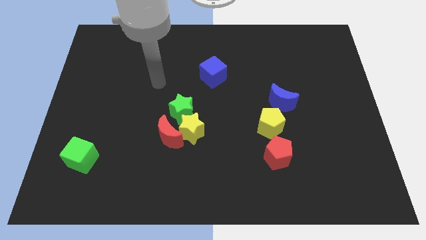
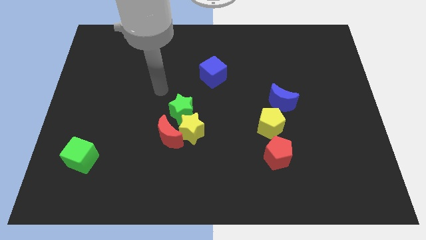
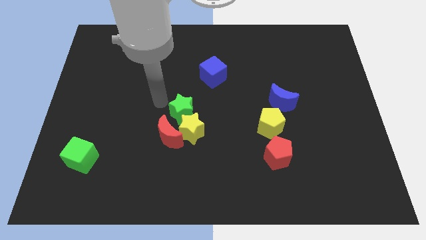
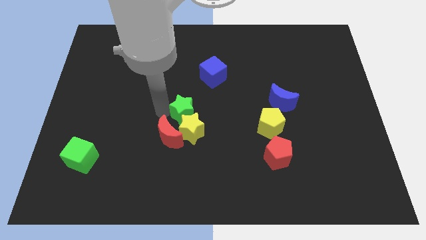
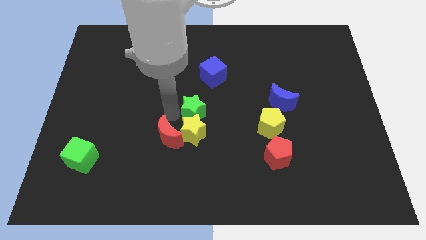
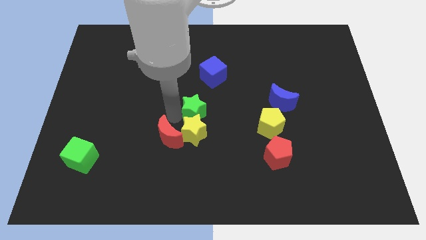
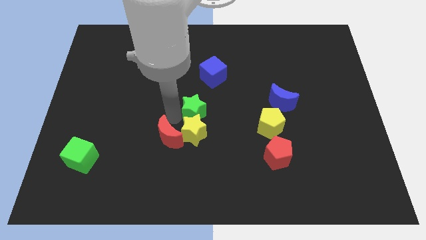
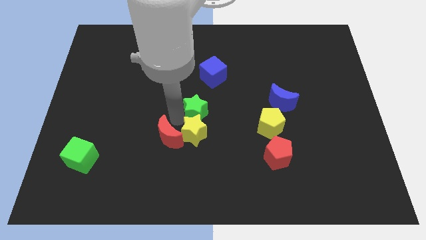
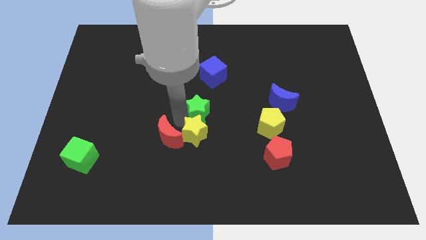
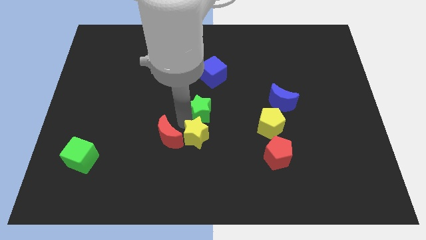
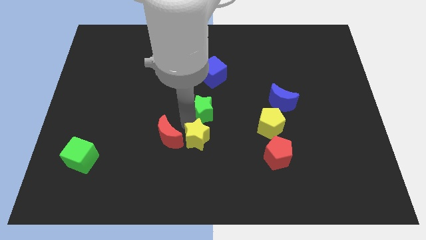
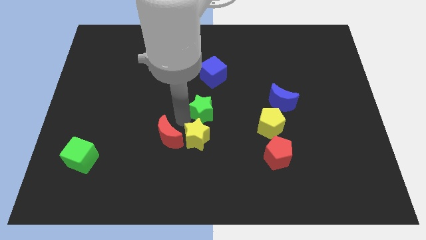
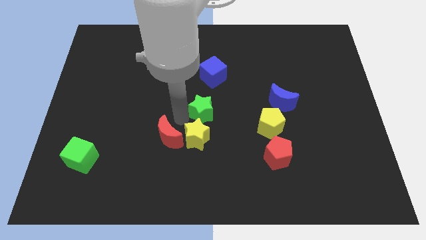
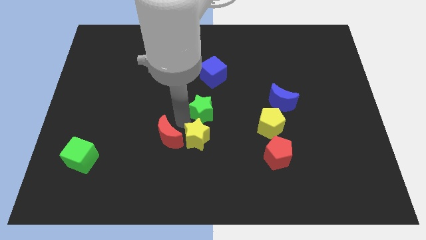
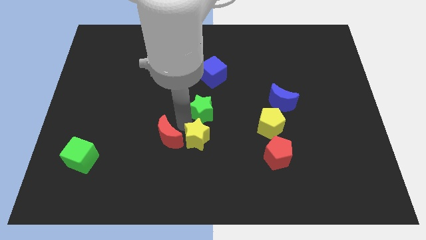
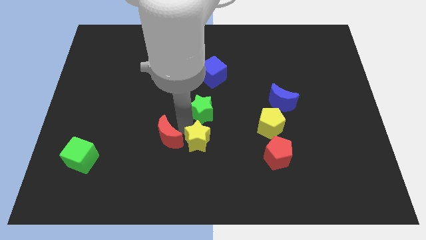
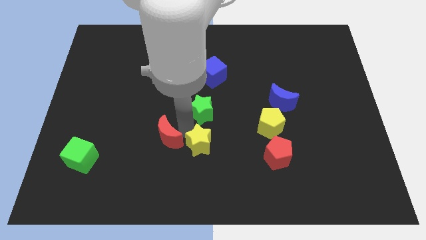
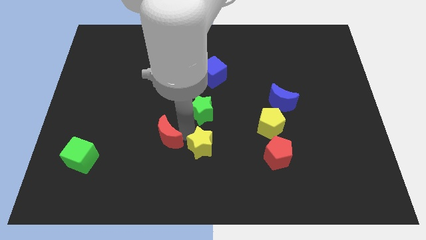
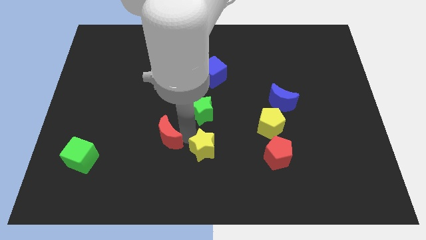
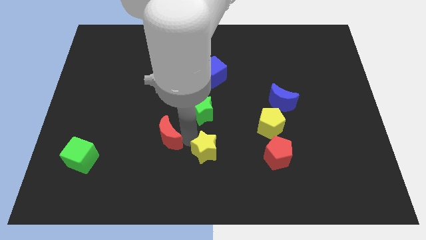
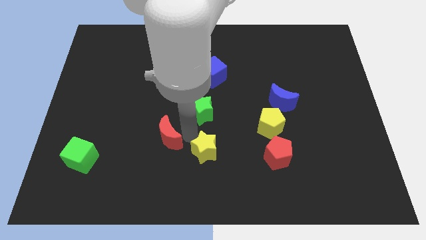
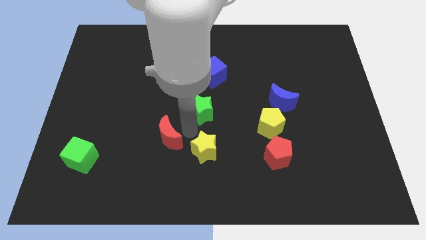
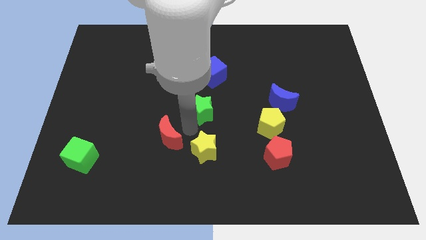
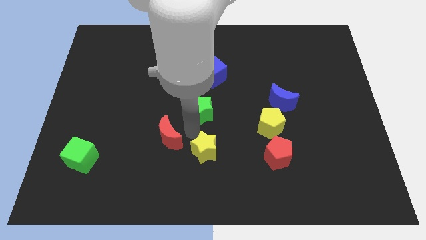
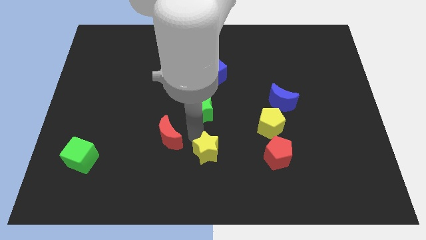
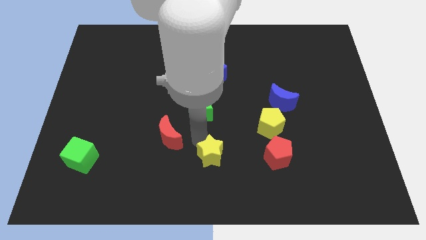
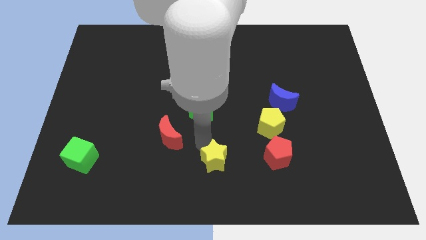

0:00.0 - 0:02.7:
pull the yellow star apart from the red moon and green star

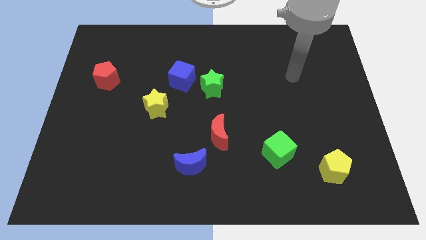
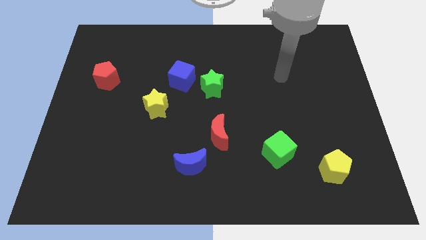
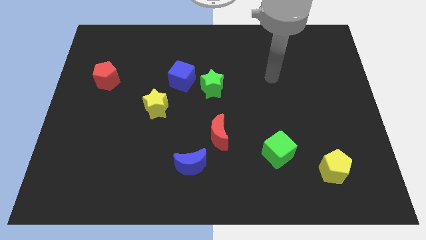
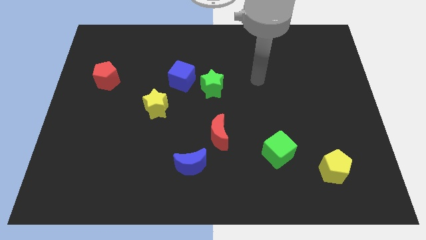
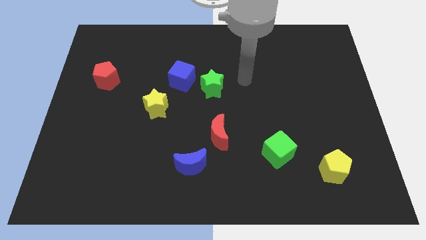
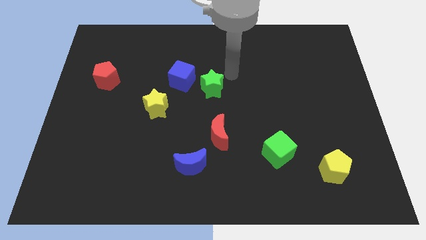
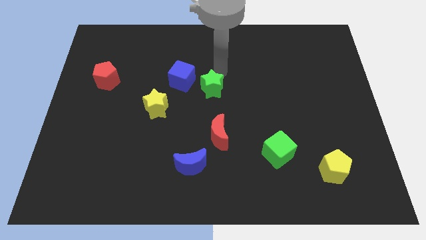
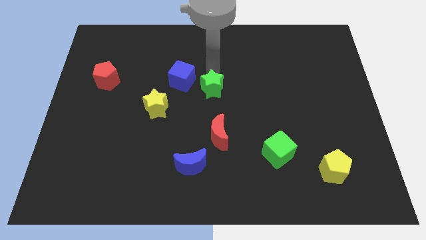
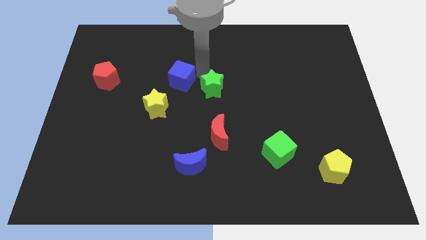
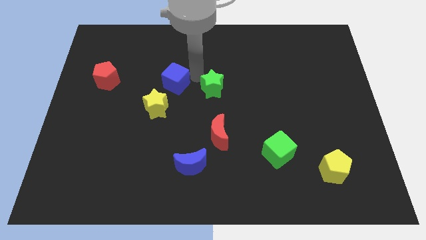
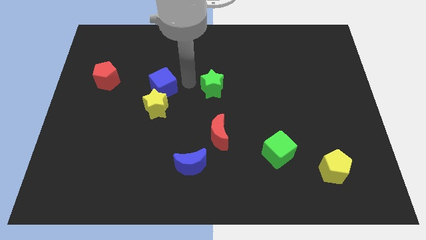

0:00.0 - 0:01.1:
pull the green star apart from the blue cube

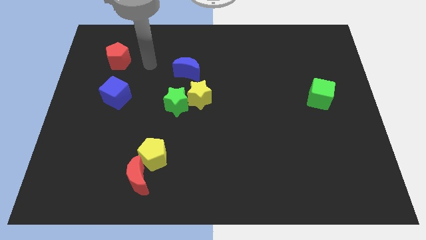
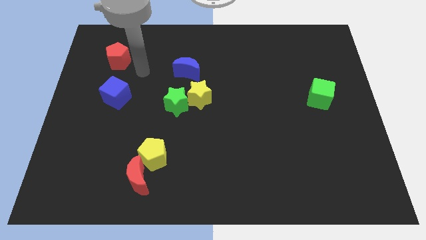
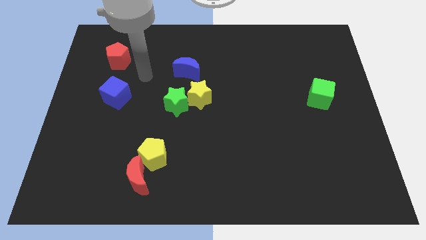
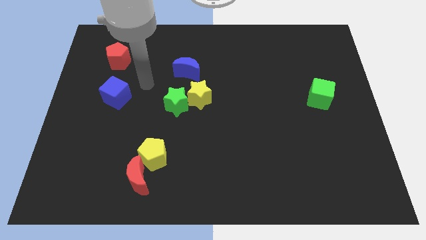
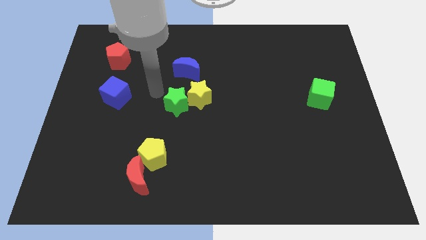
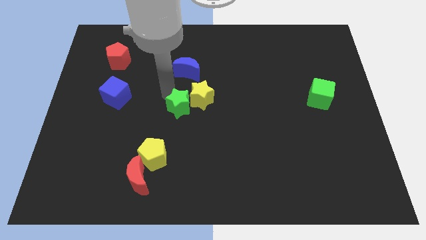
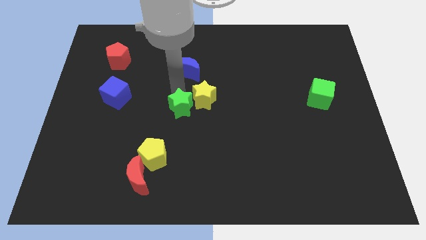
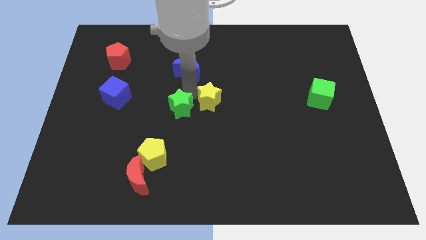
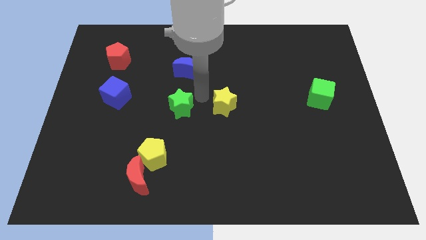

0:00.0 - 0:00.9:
pull the green star apart from the yellow star

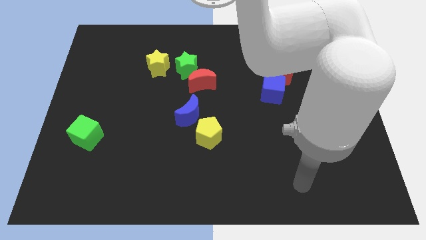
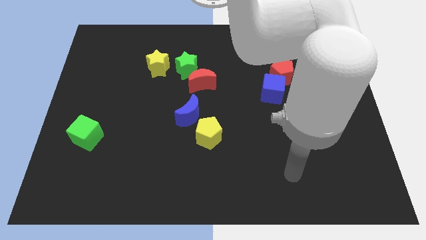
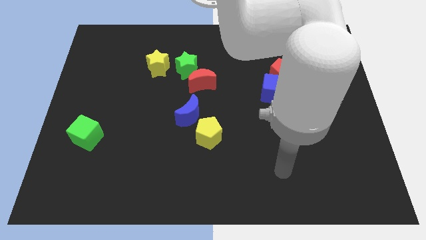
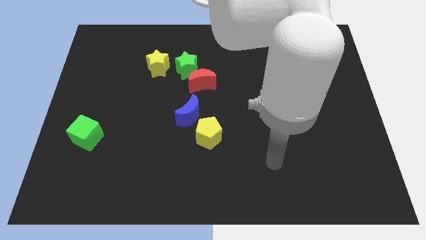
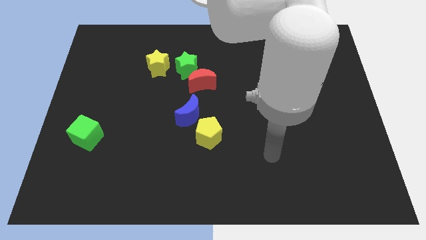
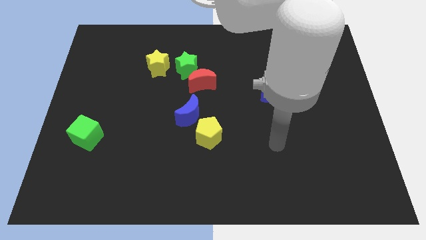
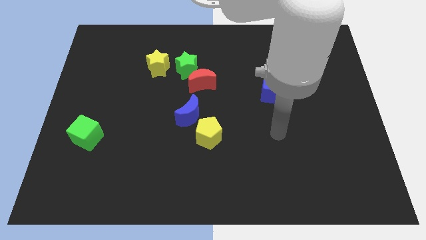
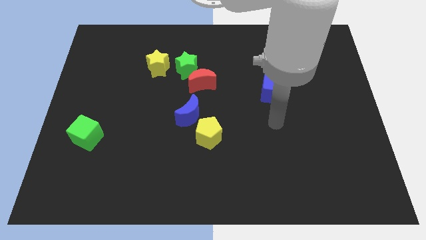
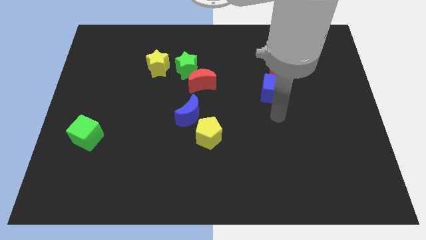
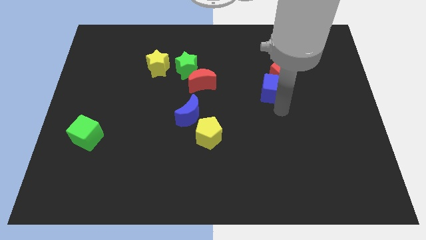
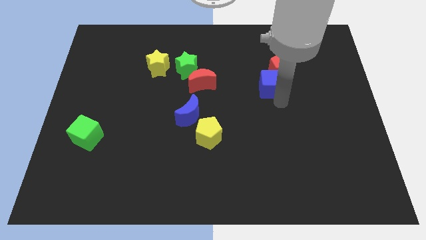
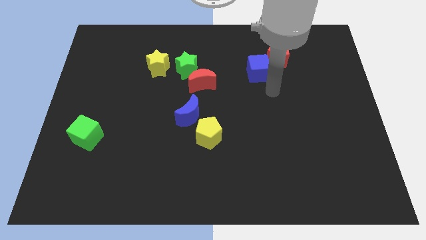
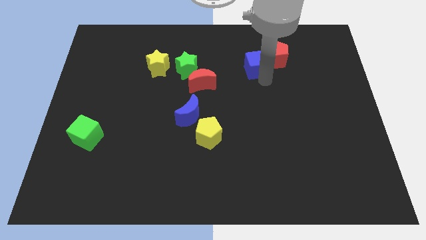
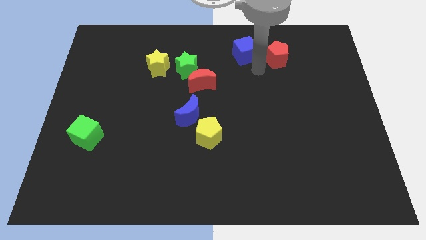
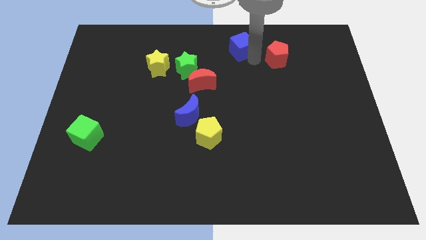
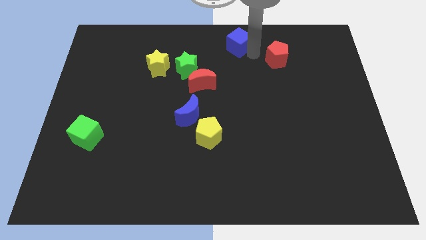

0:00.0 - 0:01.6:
separate the red pentagon from the blue cube

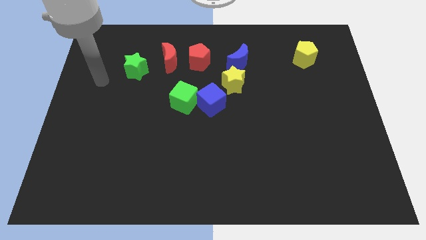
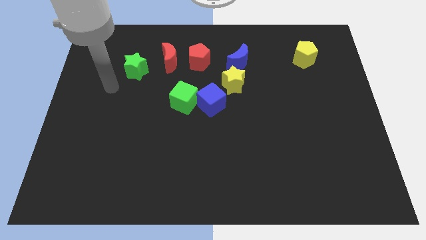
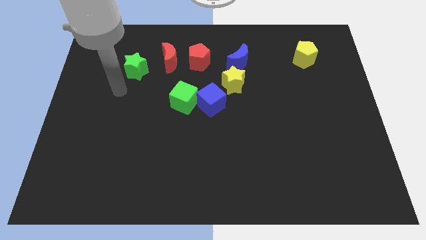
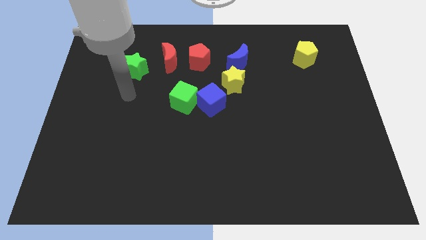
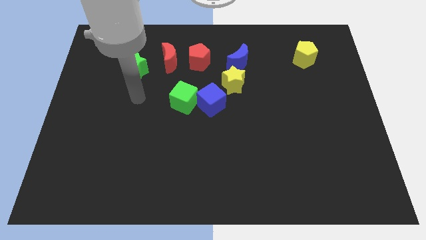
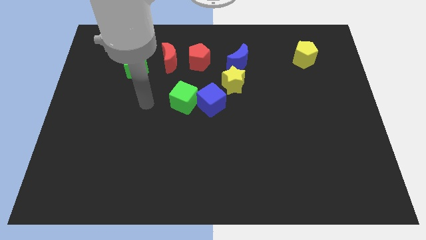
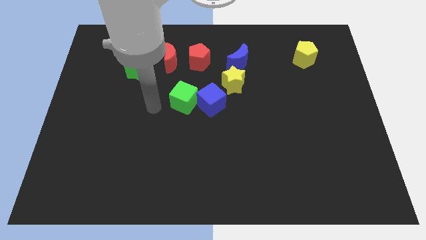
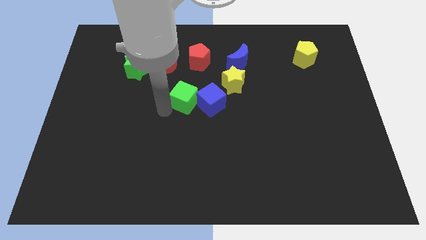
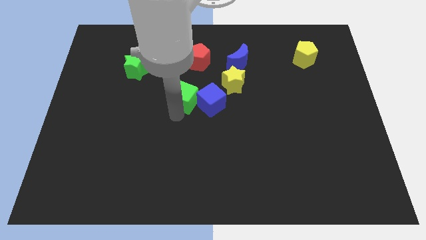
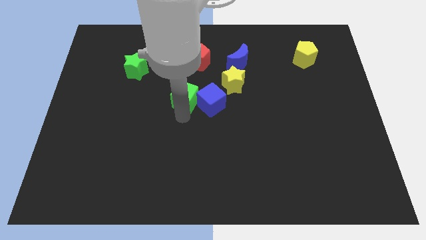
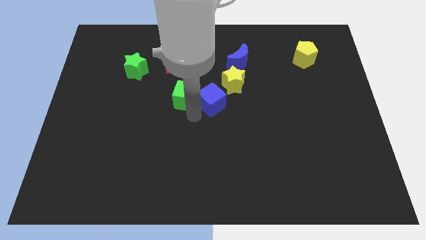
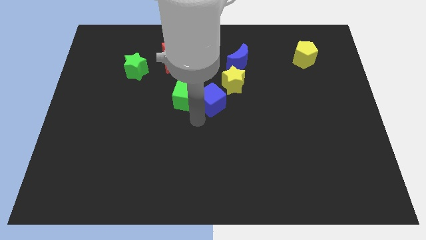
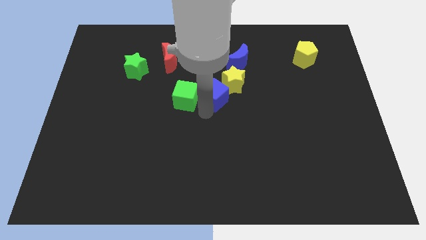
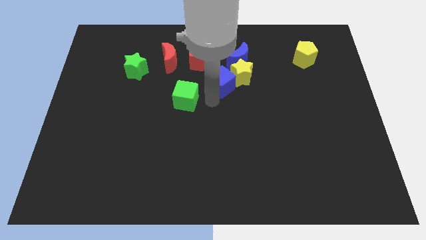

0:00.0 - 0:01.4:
move the green cube away from the blue cube

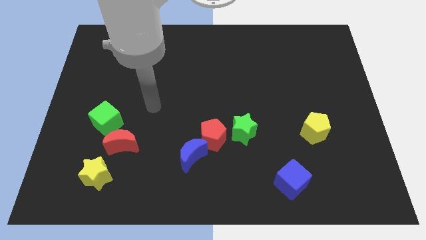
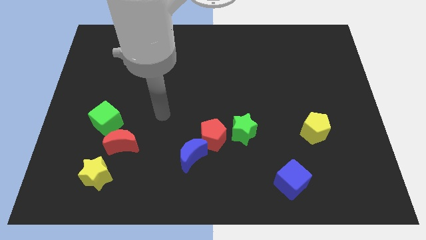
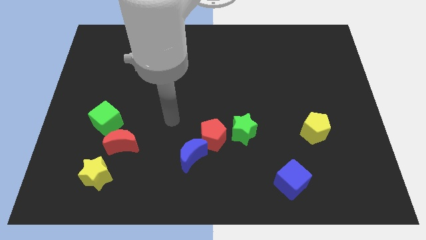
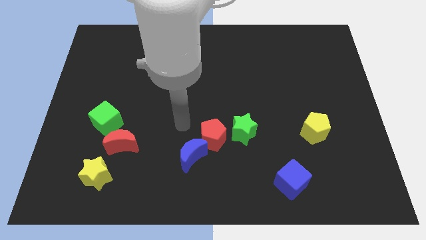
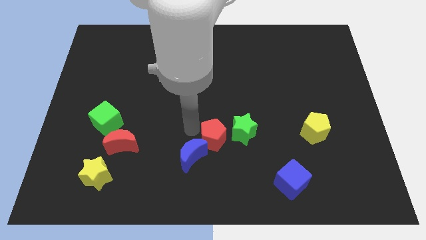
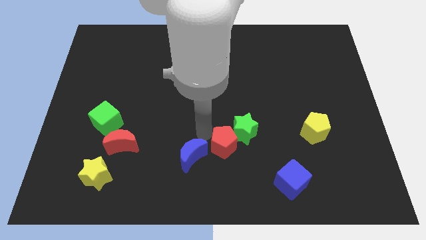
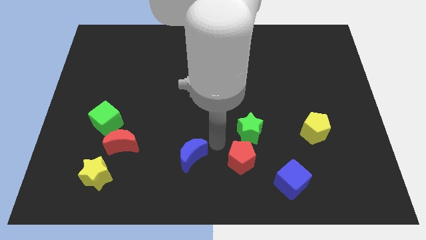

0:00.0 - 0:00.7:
pull the blue moon apart from the red pentagon

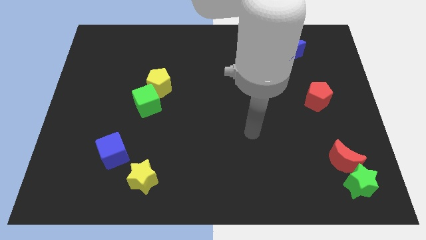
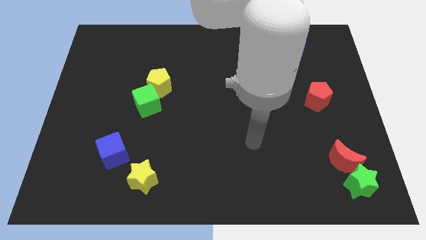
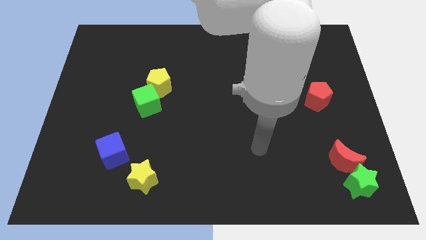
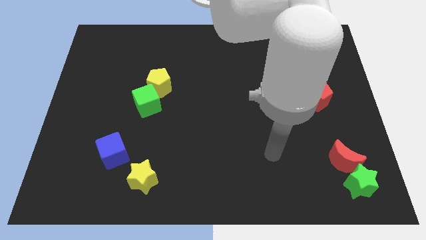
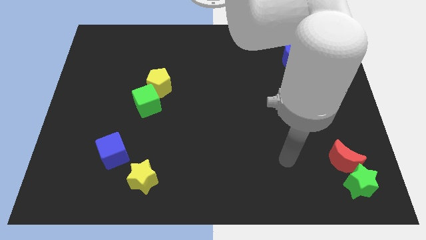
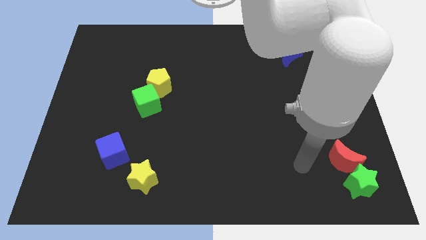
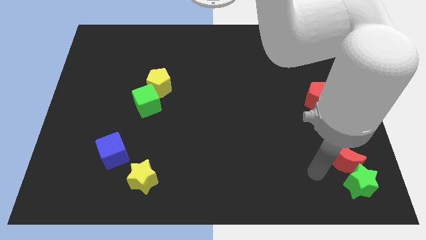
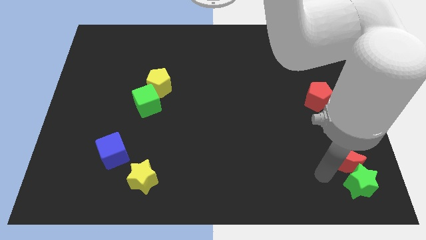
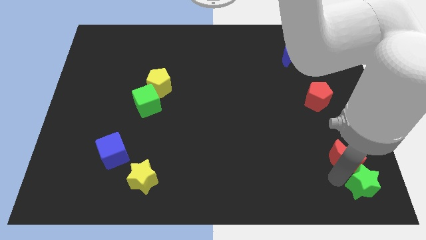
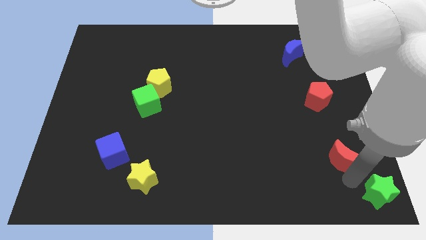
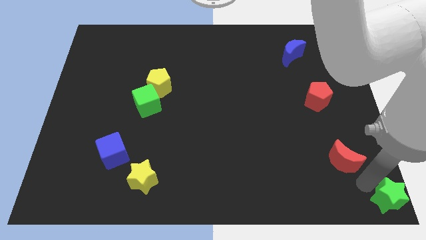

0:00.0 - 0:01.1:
pull the red moon apart from the green star

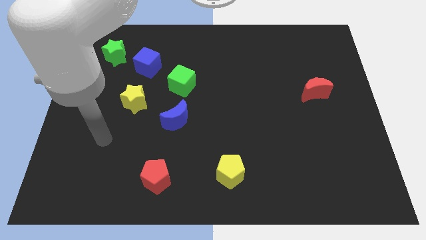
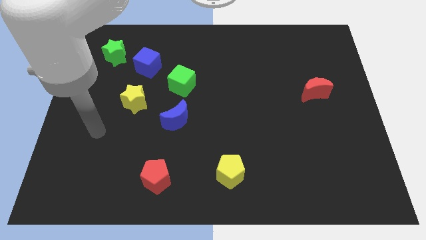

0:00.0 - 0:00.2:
move the blue cube away from the green star
